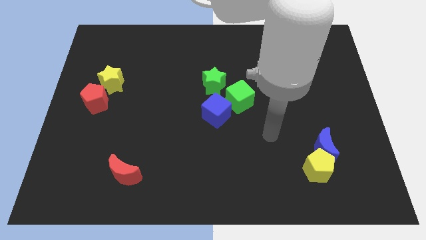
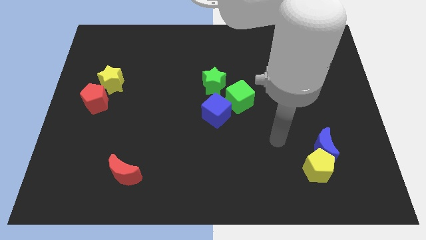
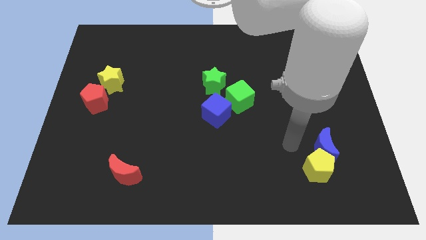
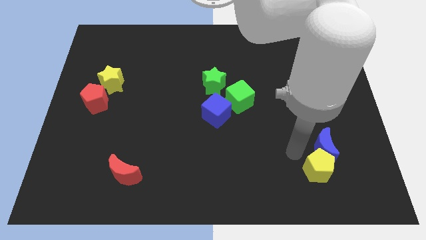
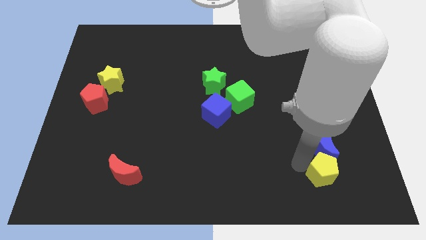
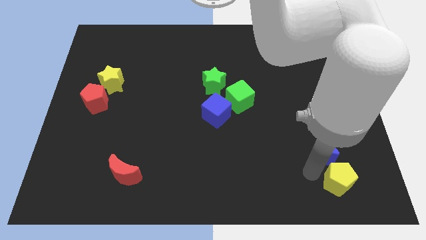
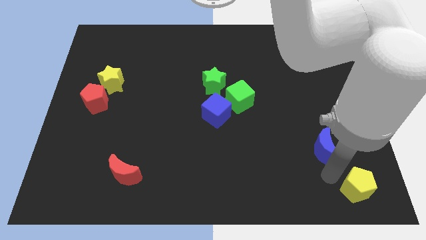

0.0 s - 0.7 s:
pull the blue moon apart from the yellow pentagon

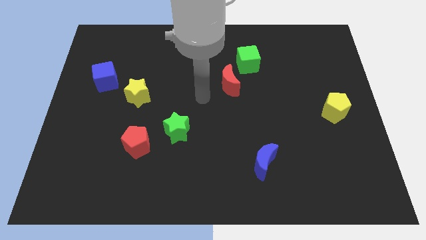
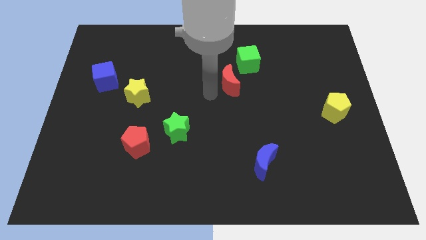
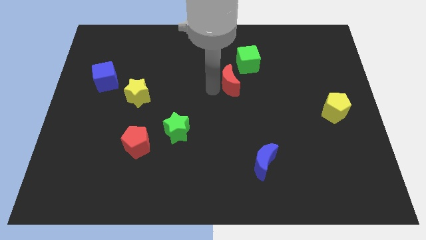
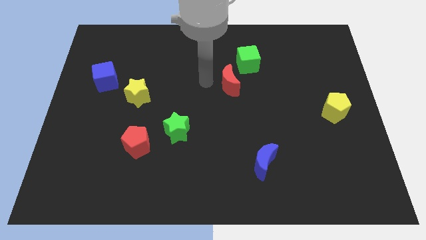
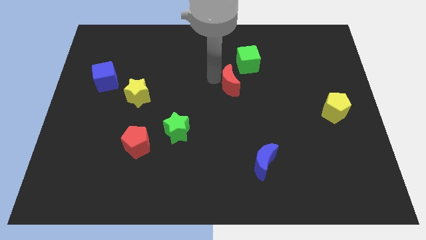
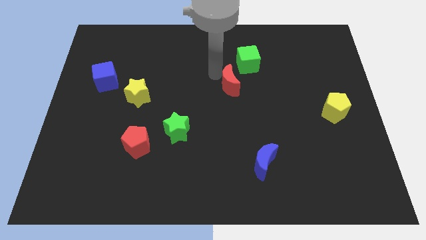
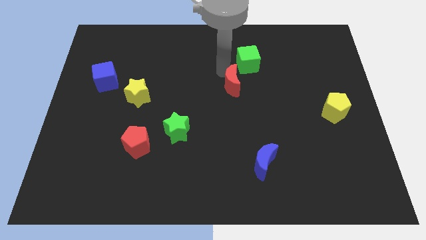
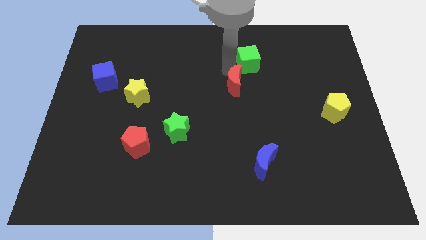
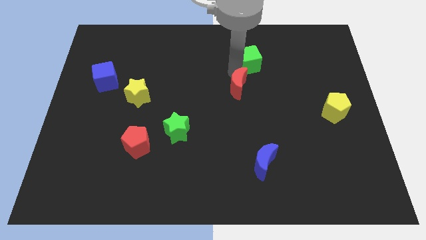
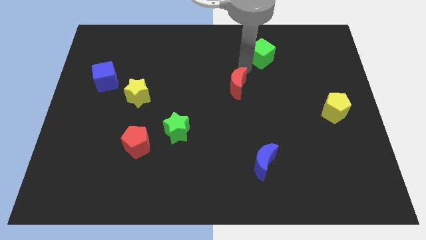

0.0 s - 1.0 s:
pull the red moon apart from the green cube

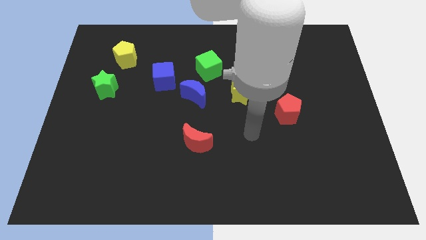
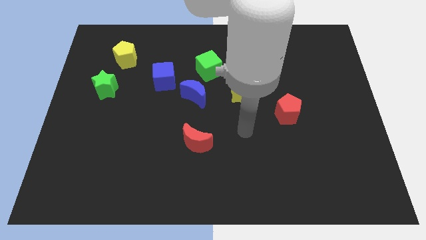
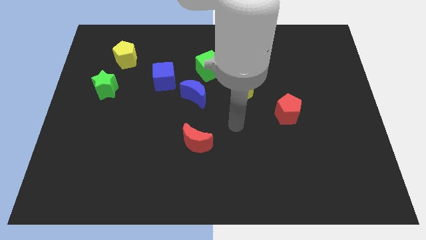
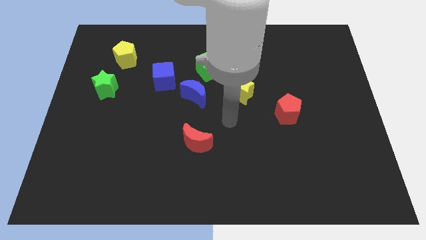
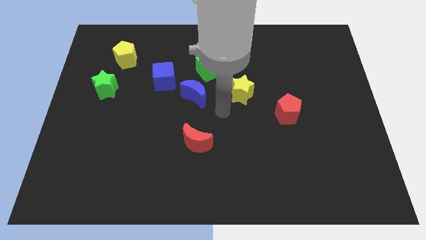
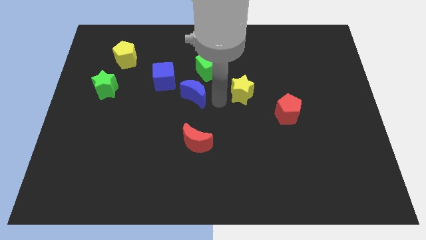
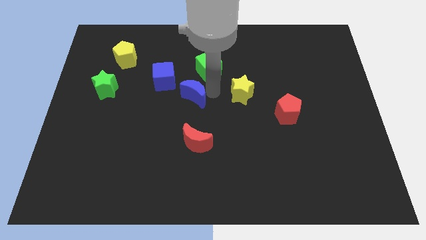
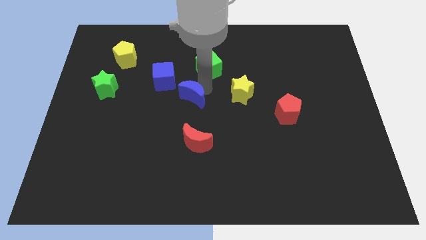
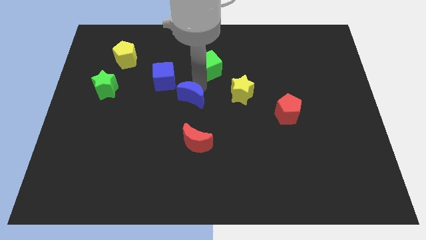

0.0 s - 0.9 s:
separate the green cube from the blue moon

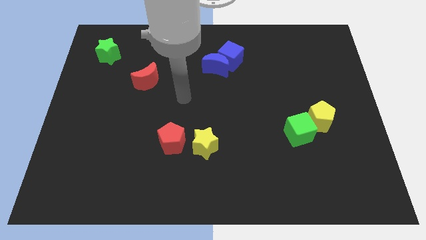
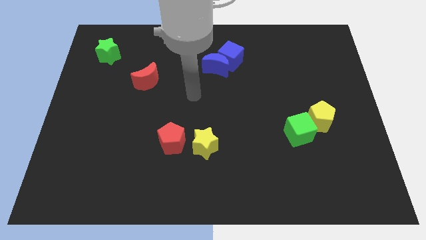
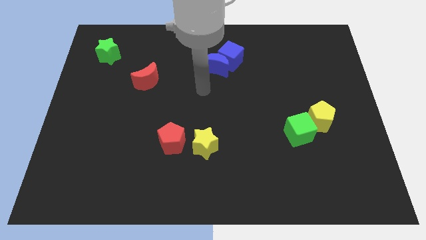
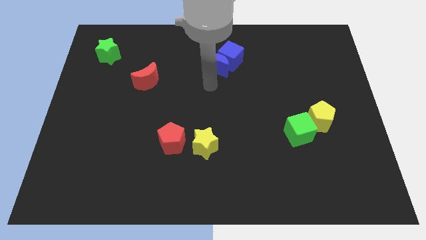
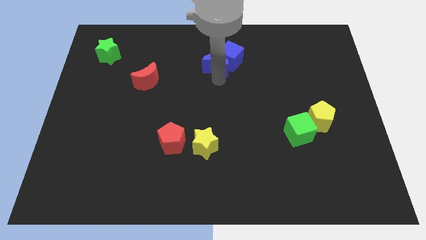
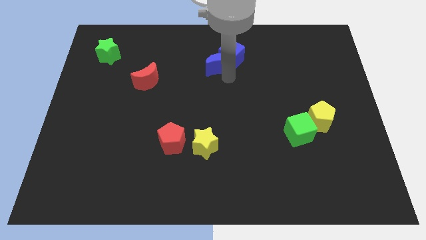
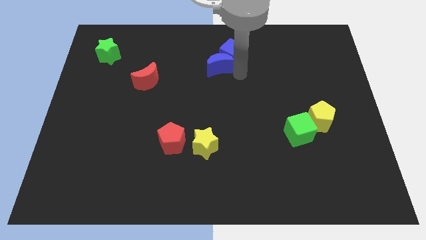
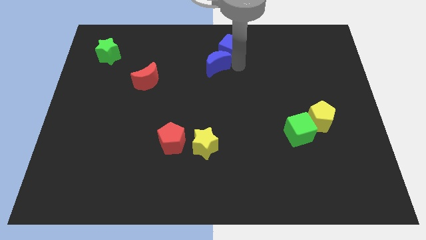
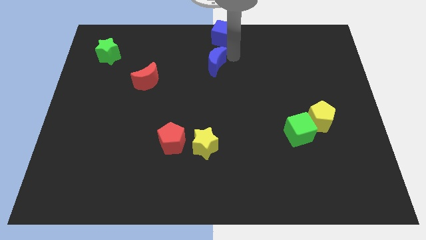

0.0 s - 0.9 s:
separate the blue moon from the blue cube

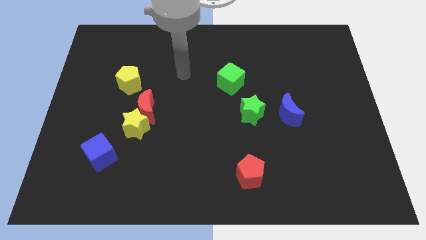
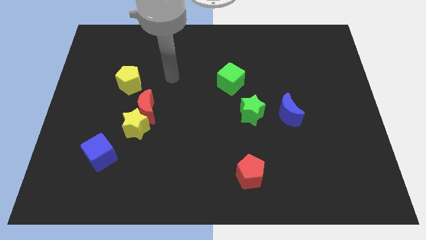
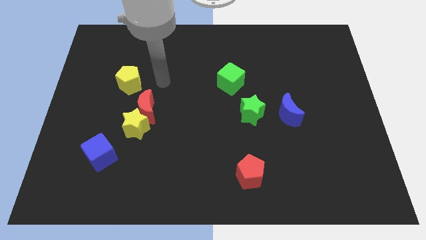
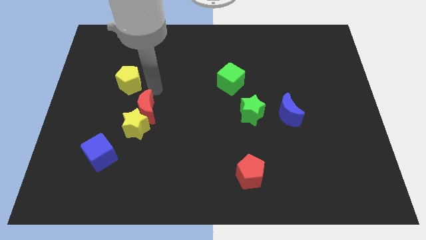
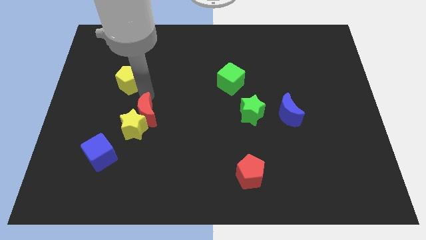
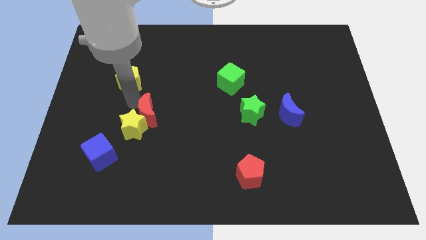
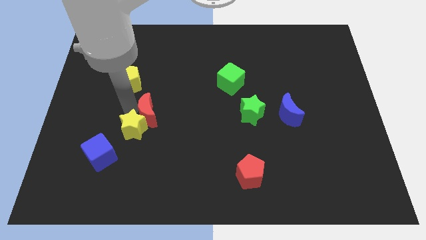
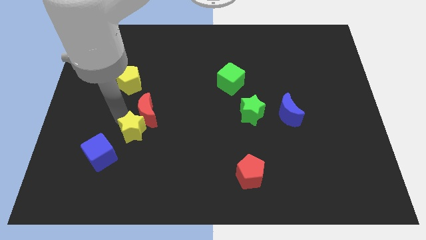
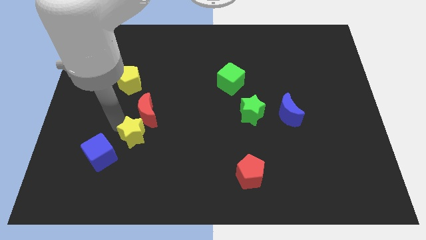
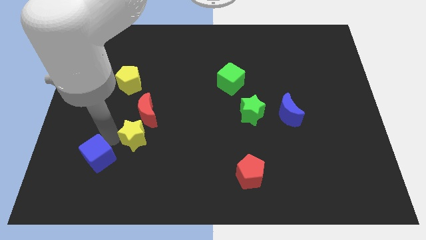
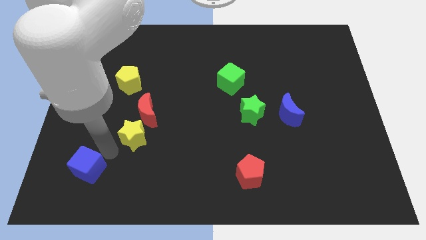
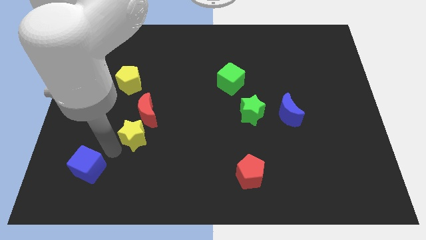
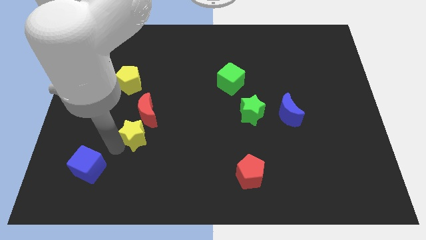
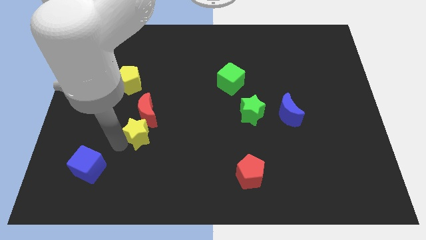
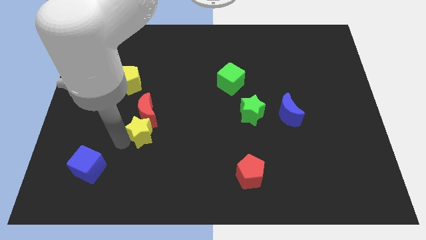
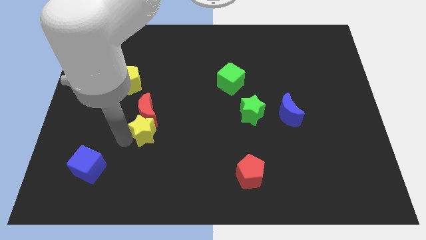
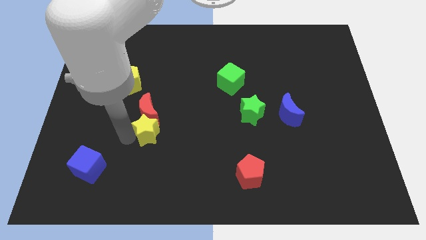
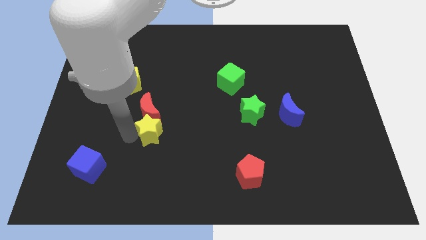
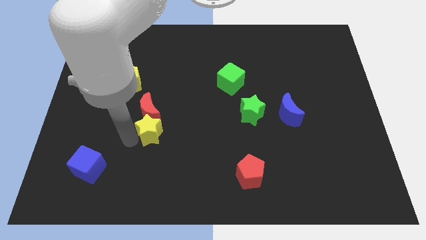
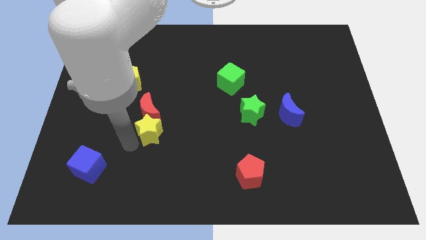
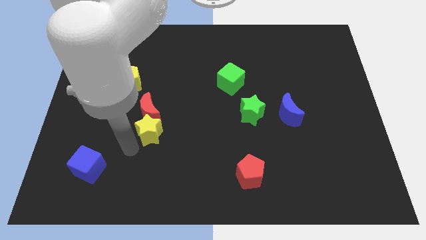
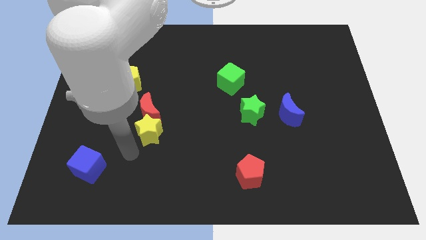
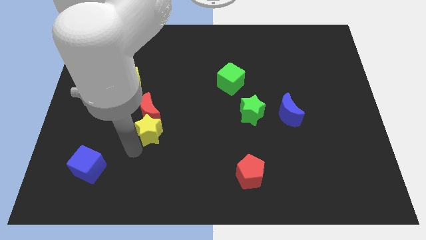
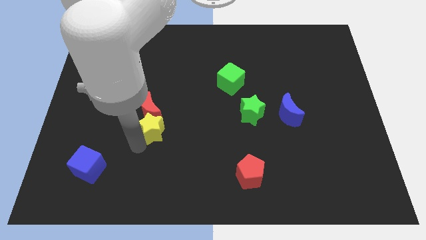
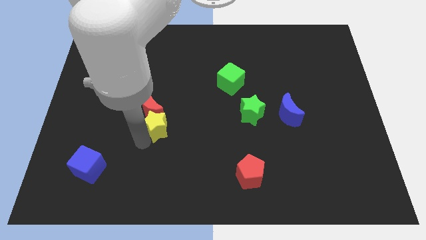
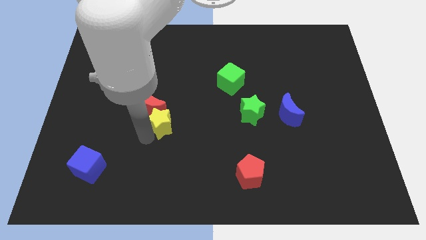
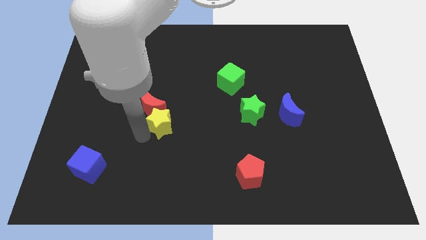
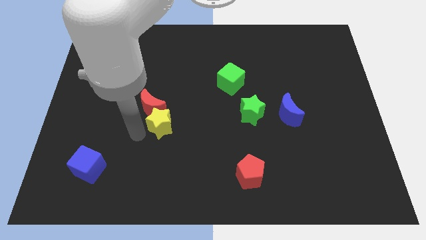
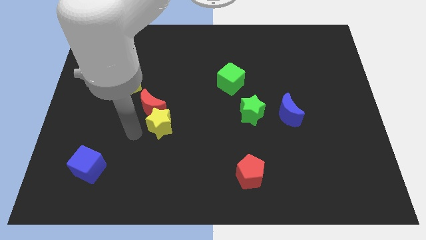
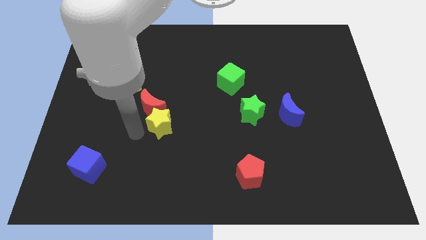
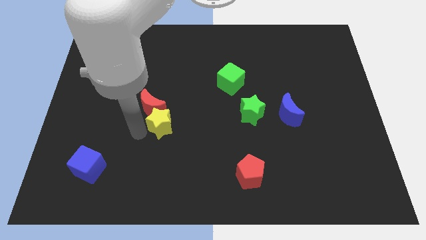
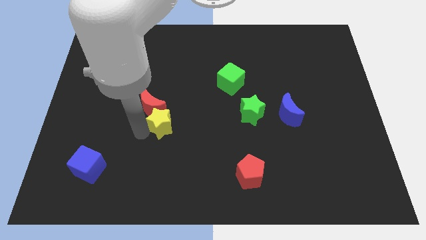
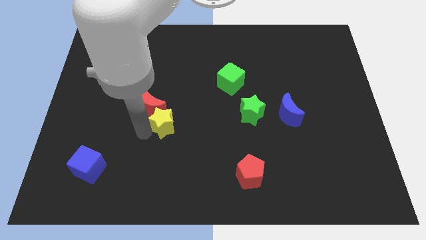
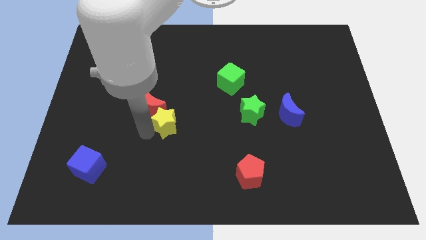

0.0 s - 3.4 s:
move the yellow star away from the red moon and blue cube

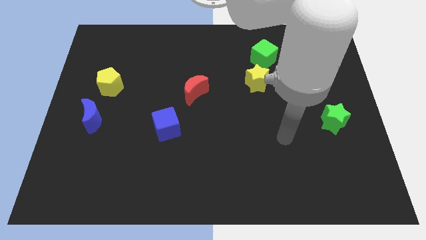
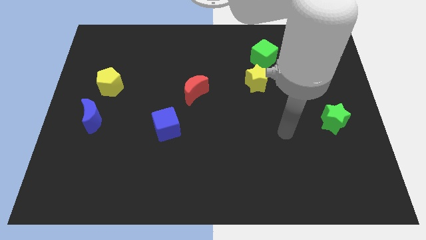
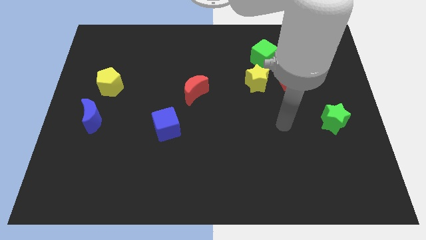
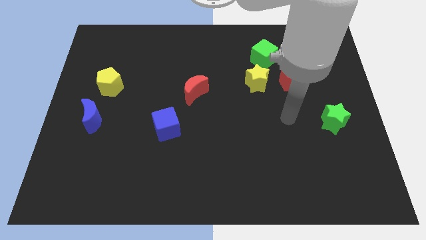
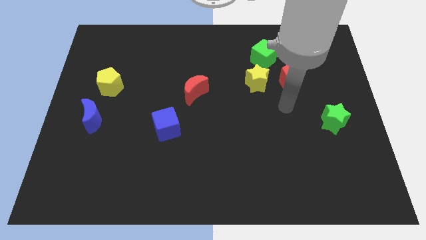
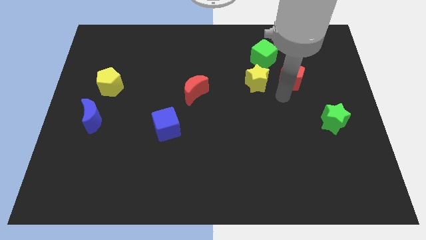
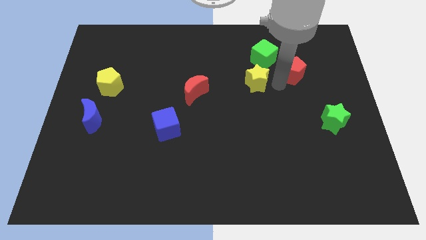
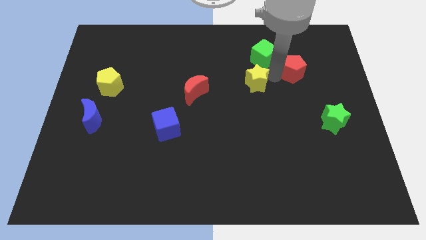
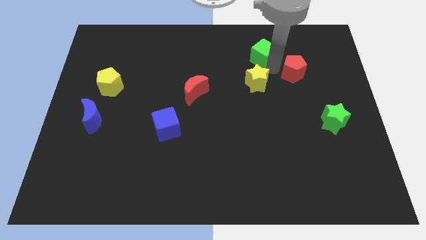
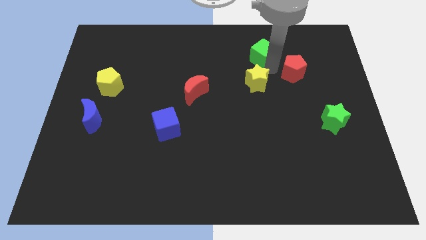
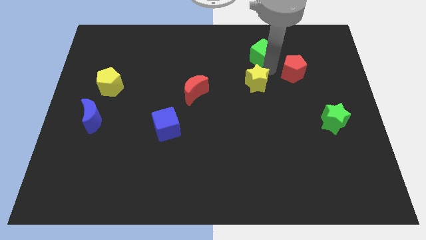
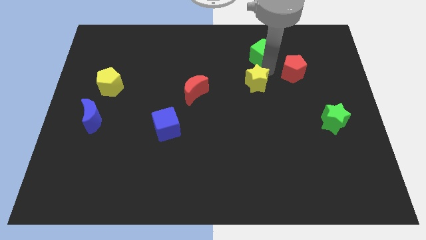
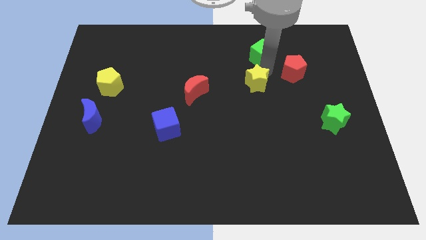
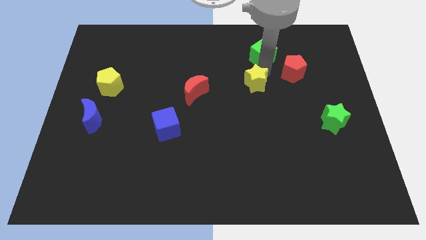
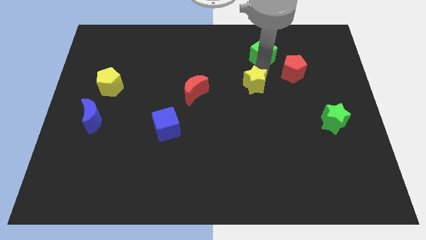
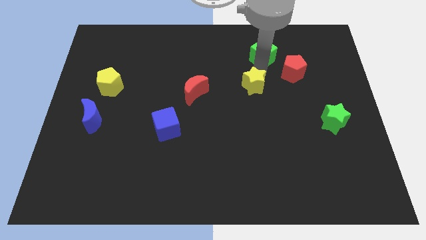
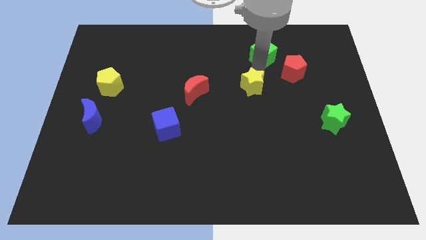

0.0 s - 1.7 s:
separate the yellow star from the red pentagon and green cube

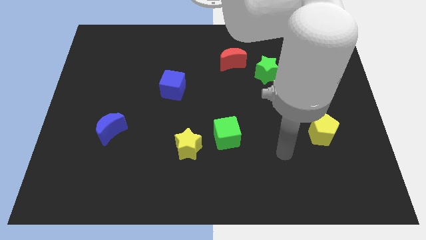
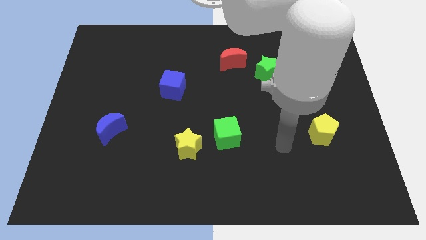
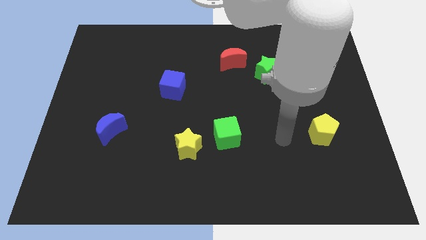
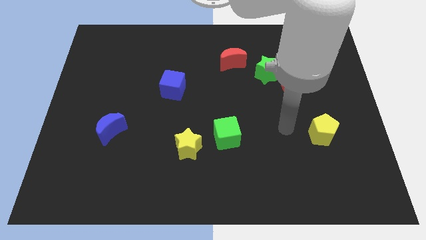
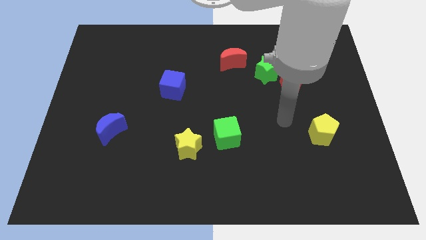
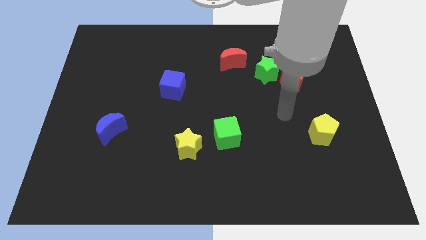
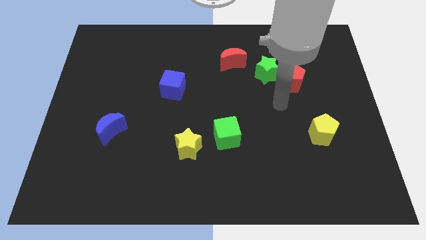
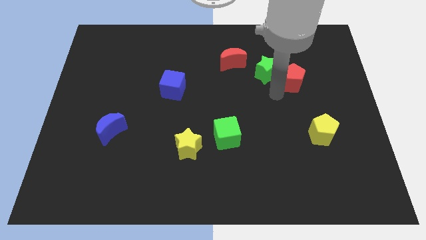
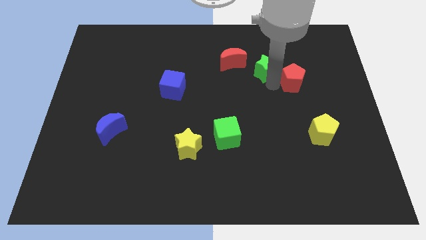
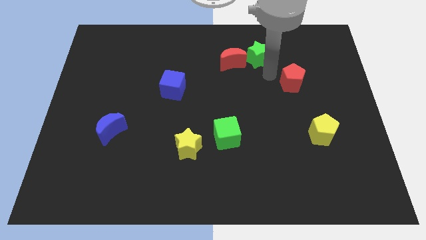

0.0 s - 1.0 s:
pull the red pentagon apart from the green star
